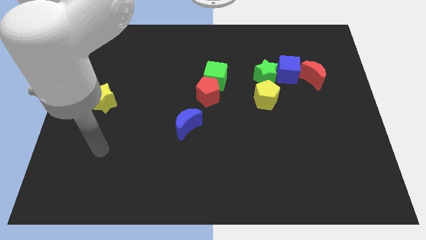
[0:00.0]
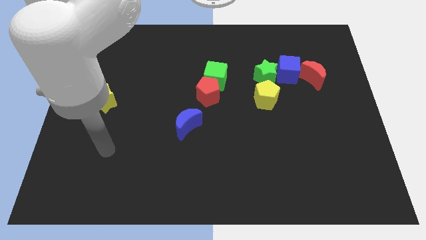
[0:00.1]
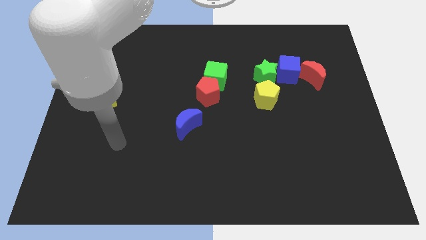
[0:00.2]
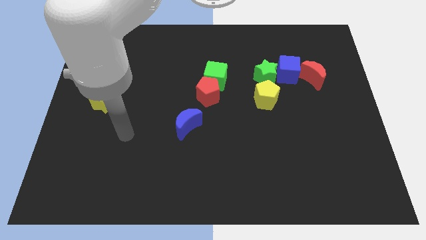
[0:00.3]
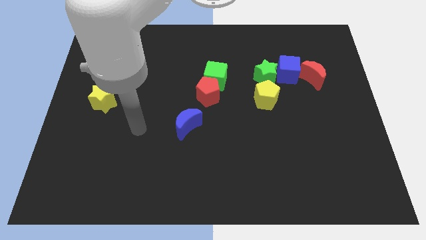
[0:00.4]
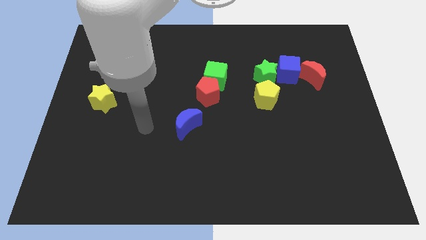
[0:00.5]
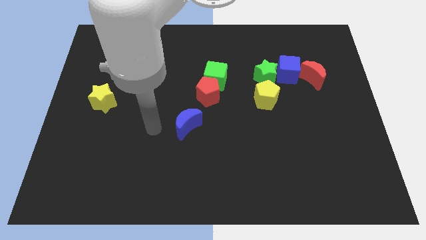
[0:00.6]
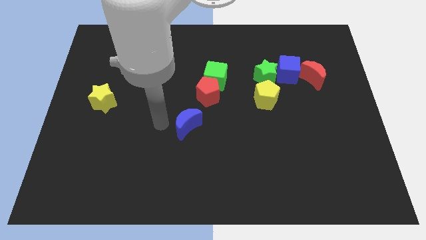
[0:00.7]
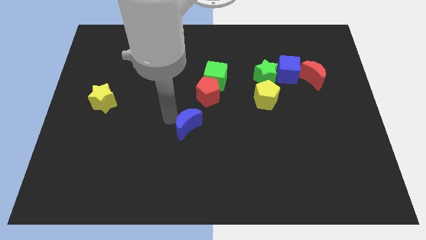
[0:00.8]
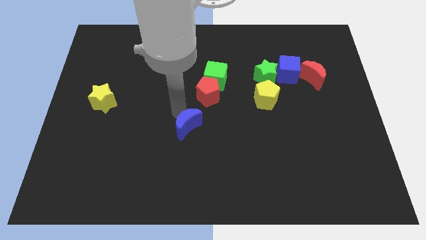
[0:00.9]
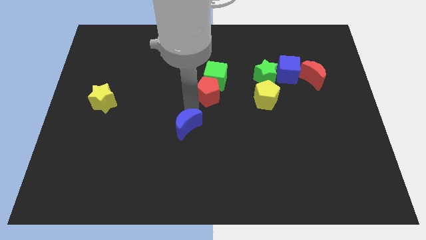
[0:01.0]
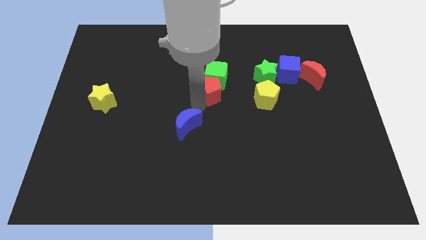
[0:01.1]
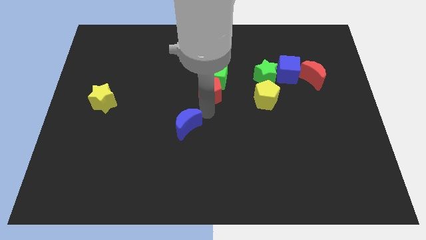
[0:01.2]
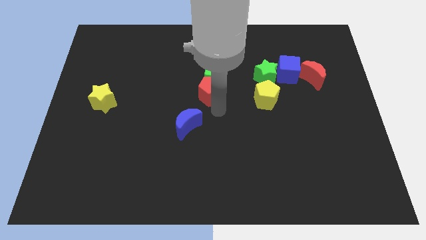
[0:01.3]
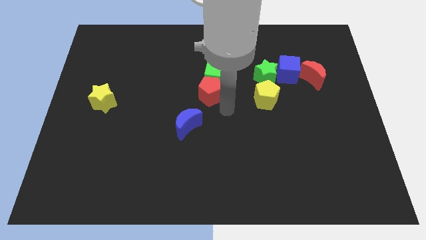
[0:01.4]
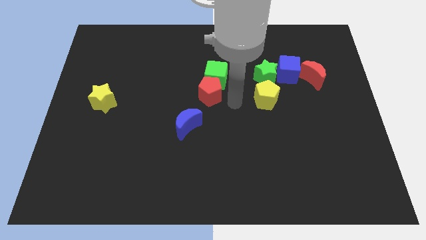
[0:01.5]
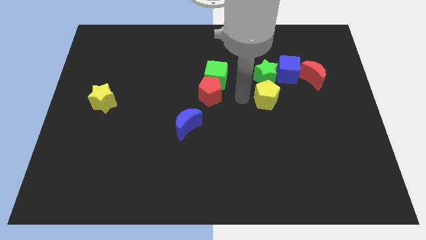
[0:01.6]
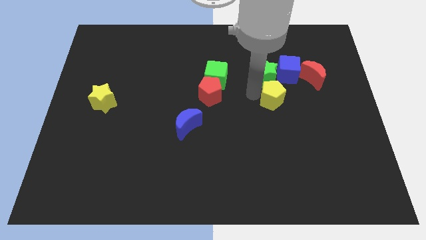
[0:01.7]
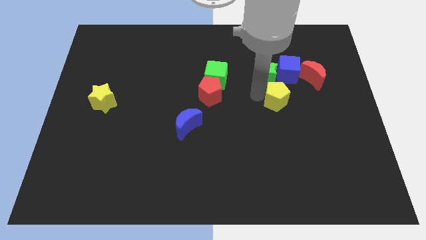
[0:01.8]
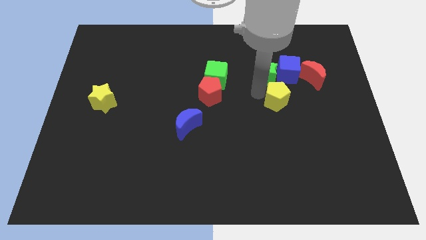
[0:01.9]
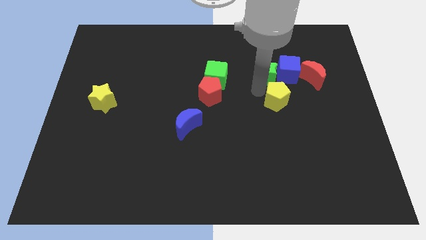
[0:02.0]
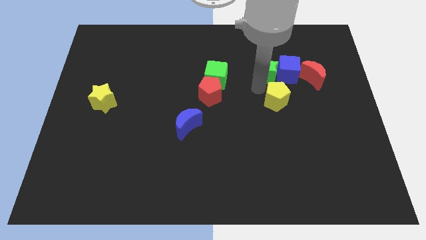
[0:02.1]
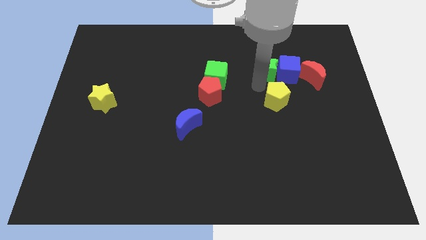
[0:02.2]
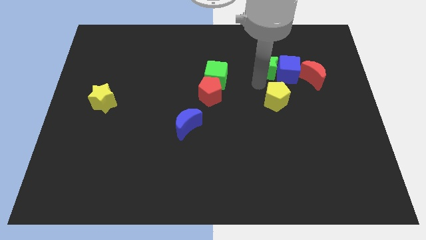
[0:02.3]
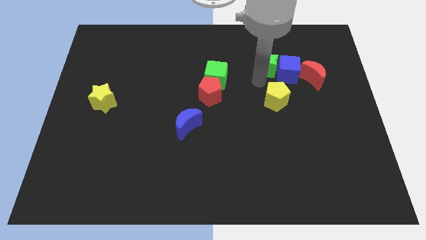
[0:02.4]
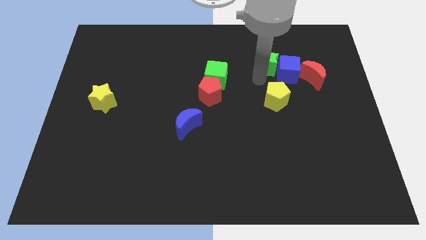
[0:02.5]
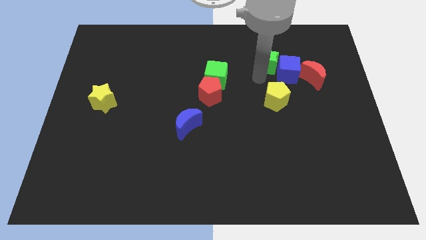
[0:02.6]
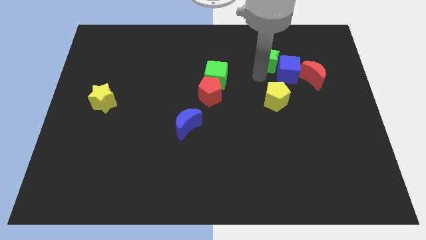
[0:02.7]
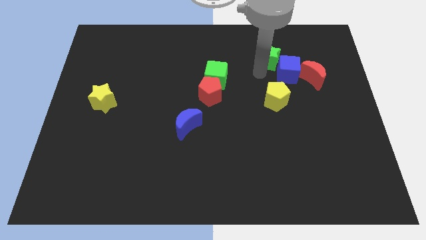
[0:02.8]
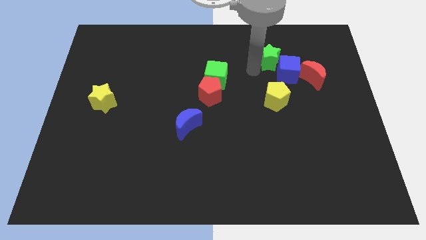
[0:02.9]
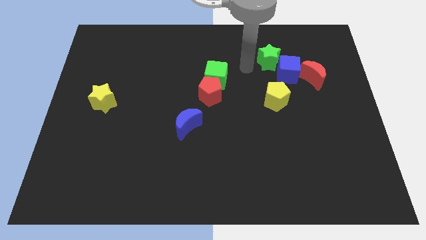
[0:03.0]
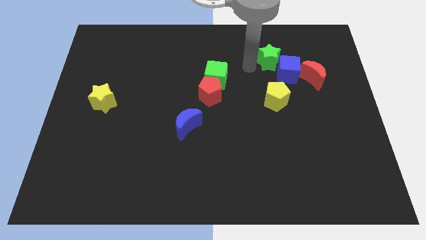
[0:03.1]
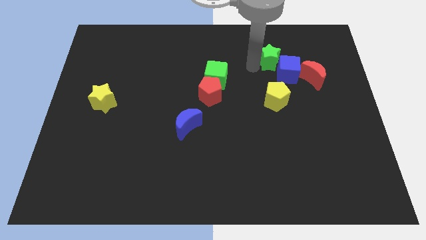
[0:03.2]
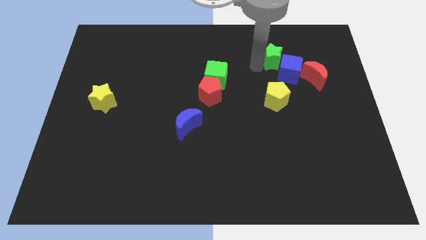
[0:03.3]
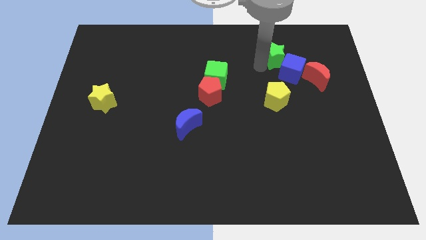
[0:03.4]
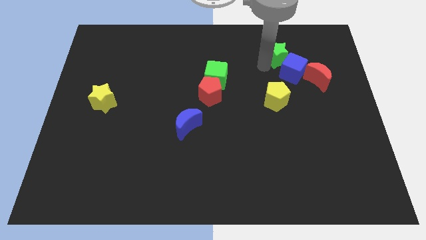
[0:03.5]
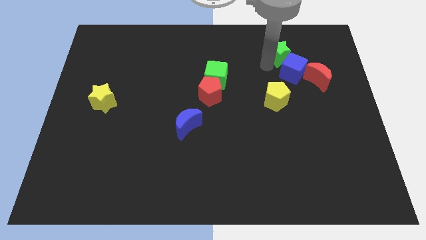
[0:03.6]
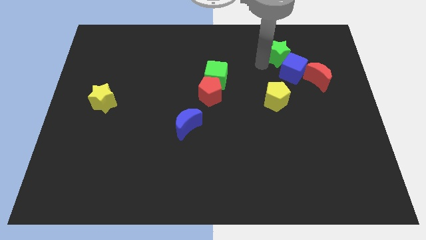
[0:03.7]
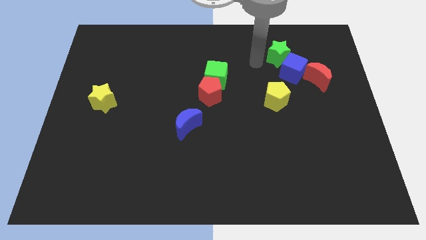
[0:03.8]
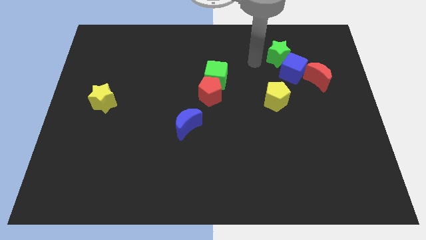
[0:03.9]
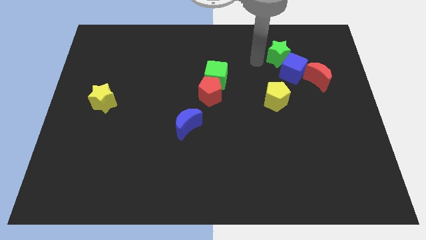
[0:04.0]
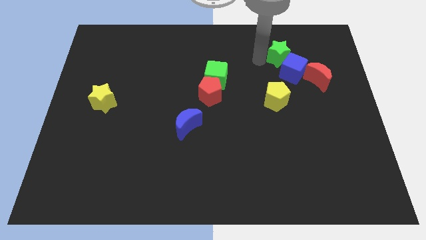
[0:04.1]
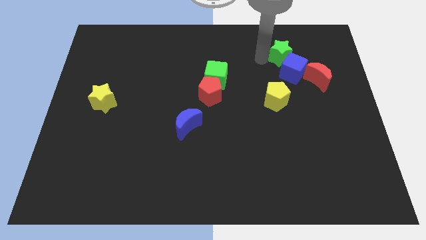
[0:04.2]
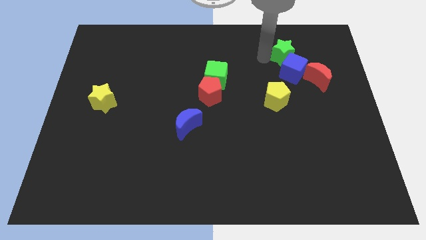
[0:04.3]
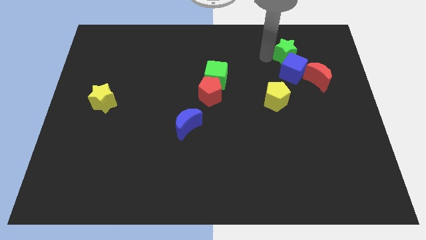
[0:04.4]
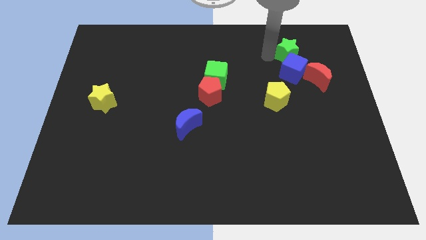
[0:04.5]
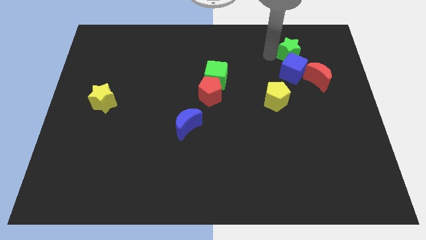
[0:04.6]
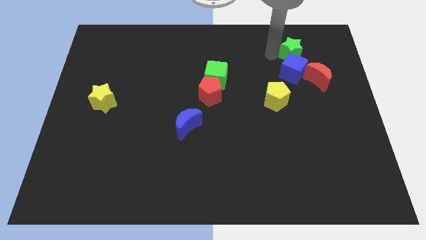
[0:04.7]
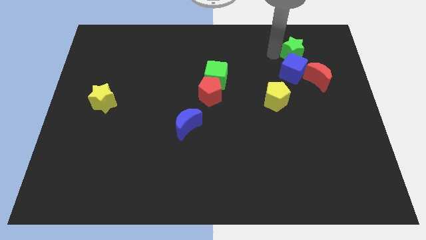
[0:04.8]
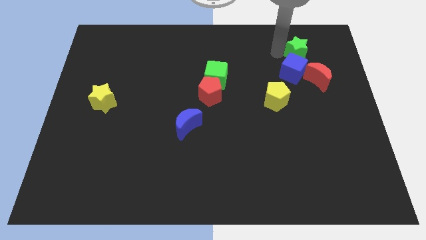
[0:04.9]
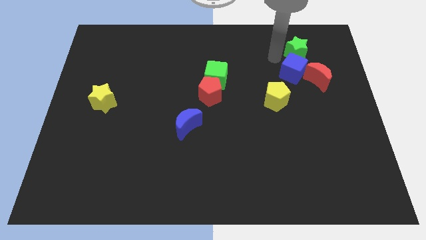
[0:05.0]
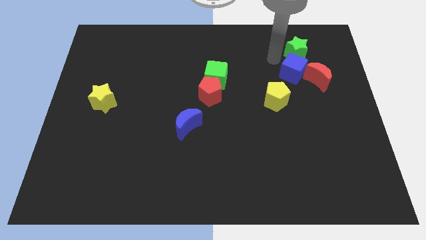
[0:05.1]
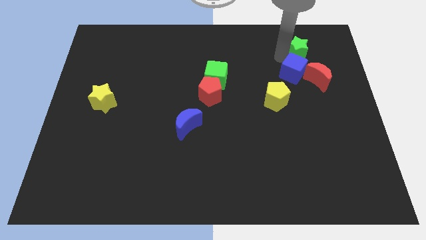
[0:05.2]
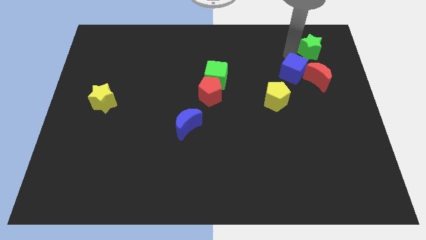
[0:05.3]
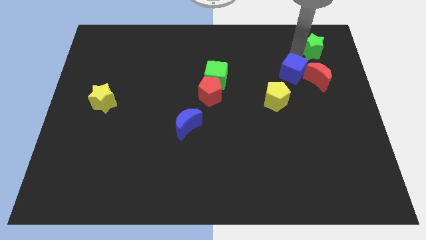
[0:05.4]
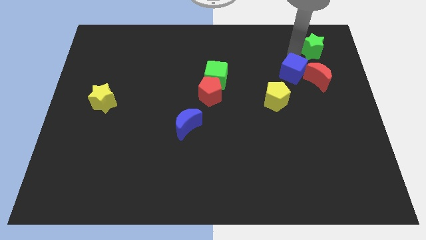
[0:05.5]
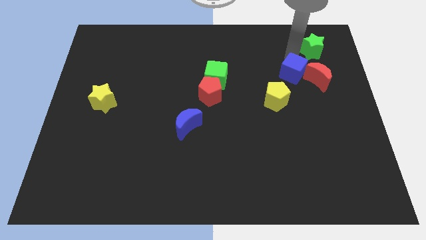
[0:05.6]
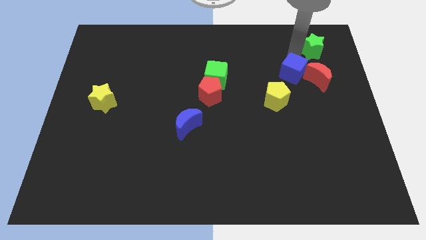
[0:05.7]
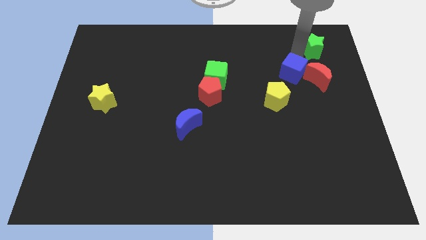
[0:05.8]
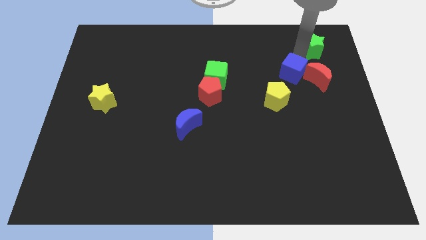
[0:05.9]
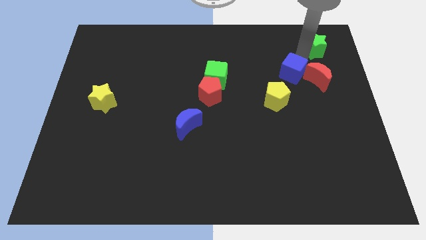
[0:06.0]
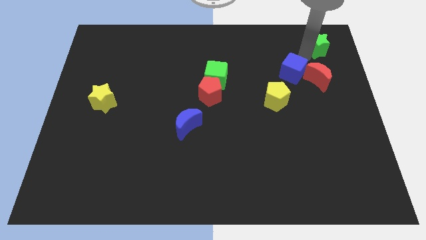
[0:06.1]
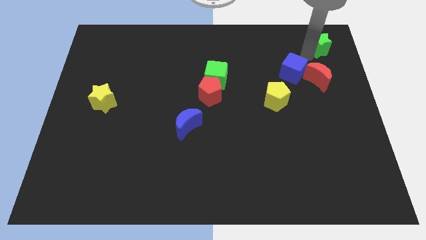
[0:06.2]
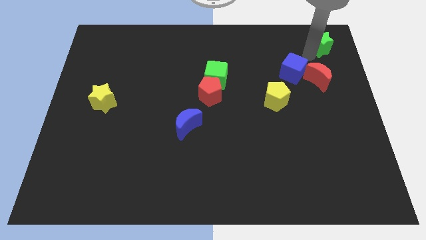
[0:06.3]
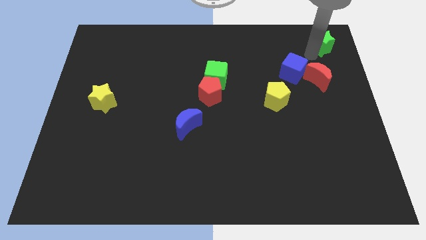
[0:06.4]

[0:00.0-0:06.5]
push the green star to the top right corner
